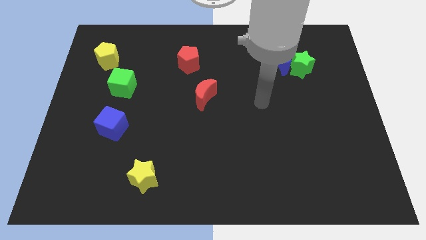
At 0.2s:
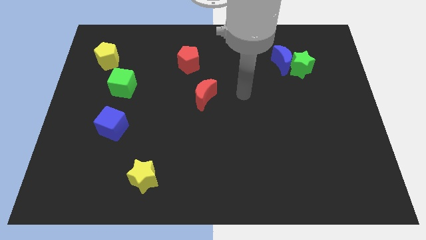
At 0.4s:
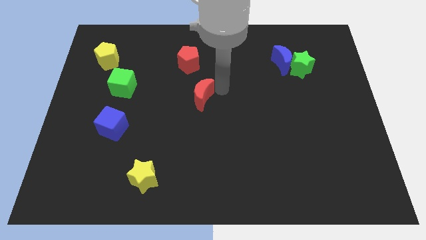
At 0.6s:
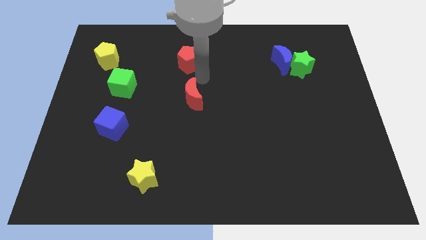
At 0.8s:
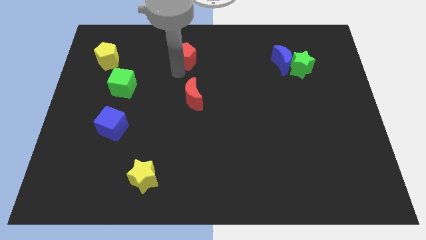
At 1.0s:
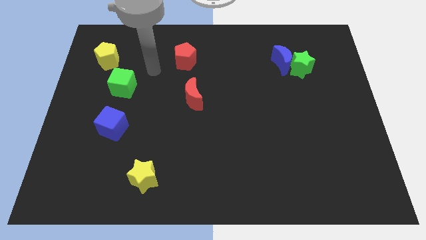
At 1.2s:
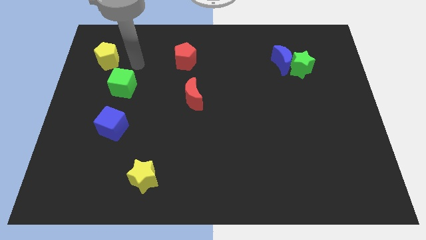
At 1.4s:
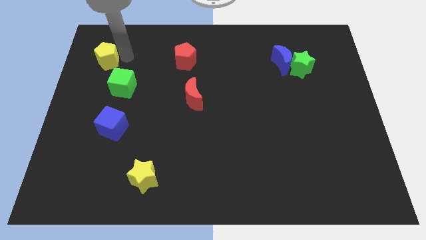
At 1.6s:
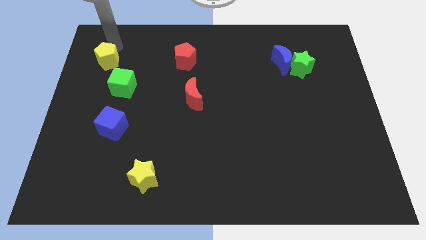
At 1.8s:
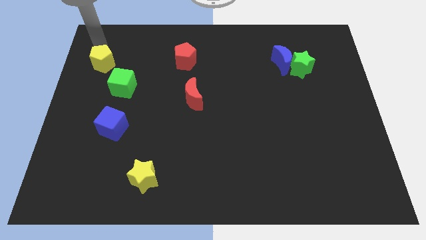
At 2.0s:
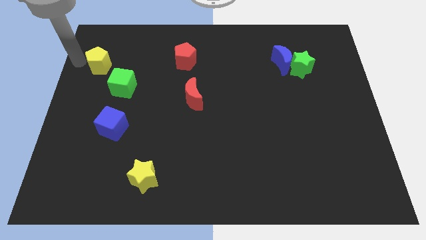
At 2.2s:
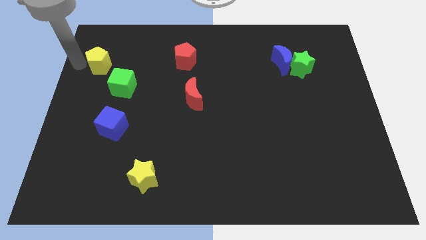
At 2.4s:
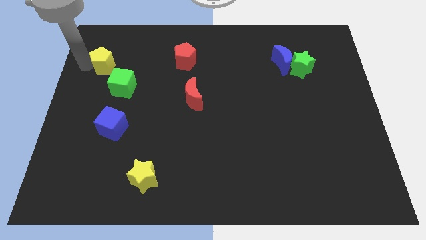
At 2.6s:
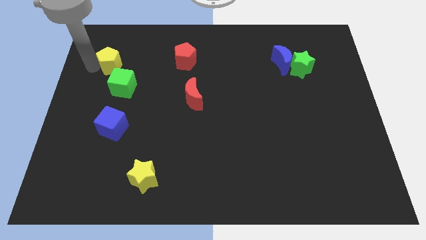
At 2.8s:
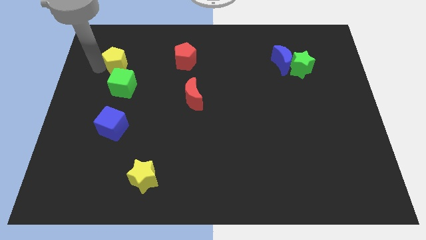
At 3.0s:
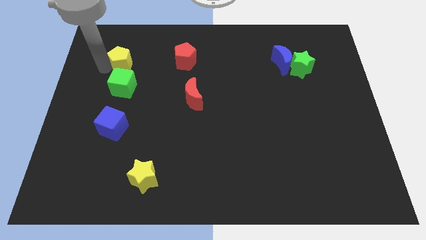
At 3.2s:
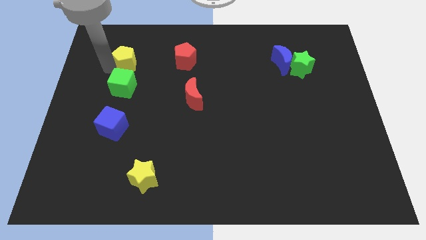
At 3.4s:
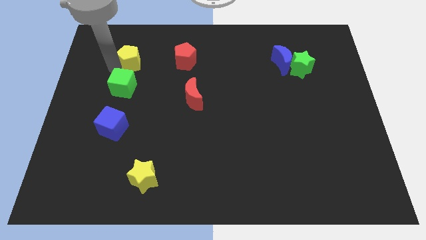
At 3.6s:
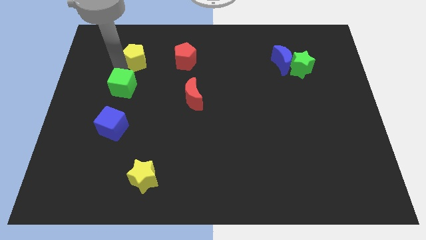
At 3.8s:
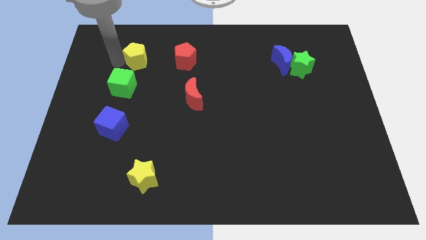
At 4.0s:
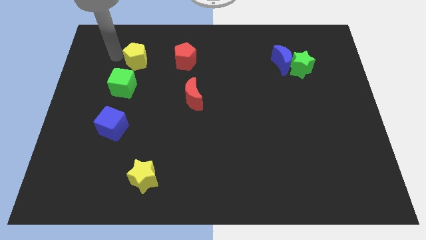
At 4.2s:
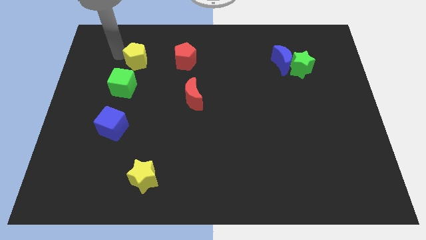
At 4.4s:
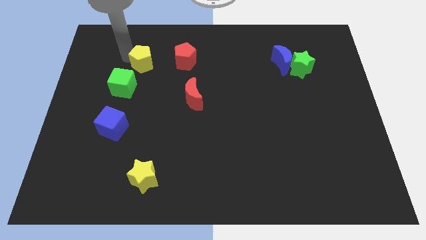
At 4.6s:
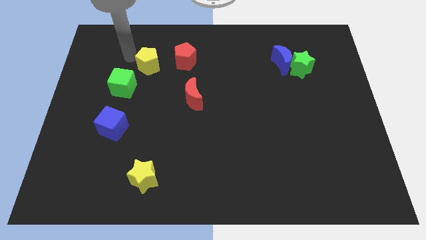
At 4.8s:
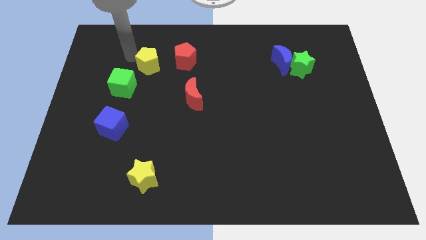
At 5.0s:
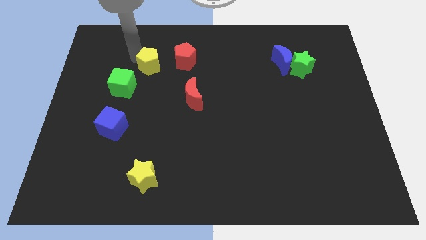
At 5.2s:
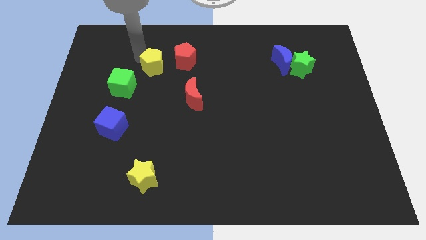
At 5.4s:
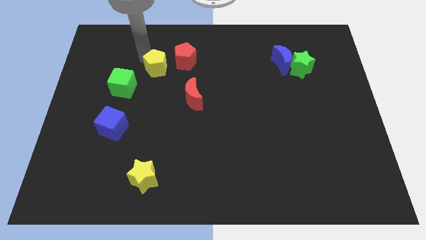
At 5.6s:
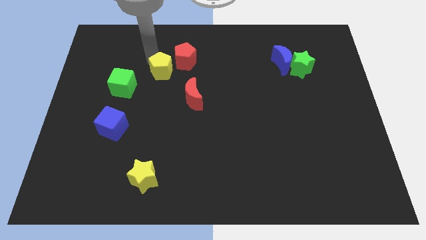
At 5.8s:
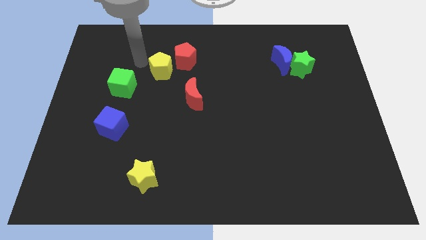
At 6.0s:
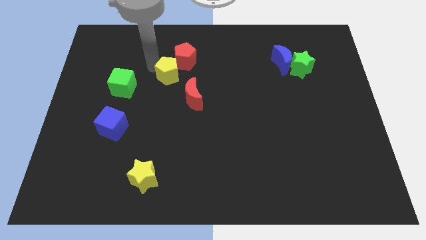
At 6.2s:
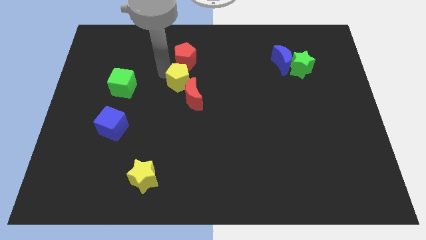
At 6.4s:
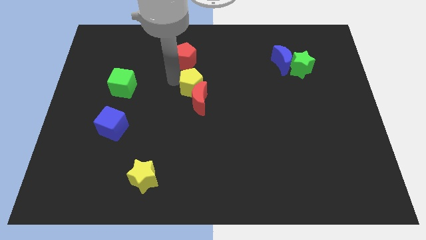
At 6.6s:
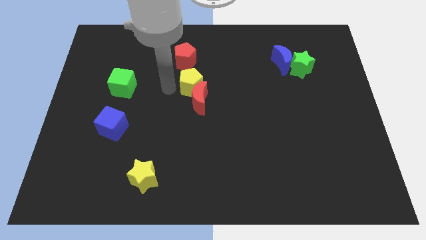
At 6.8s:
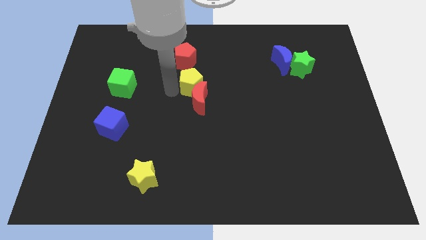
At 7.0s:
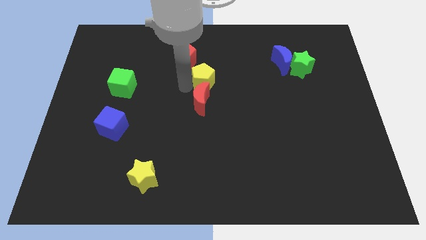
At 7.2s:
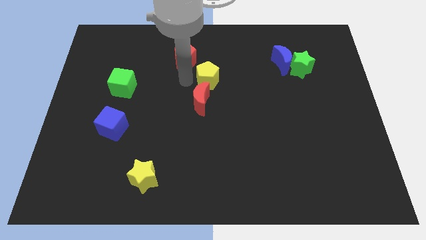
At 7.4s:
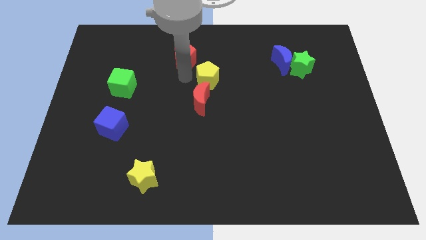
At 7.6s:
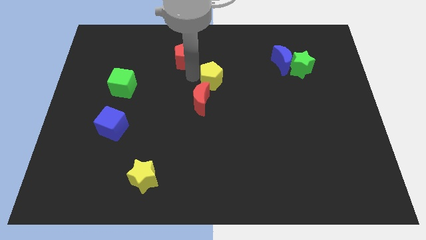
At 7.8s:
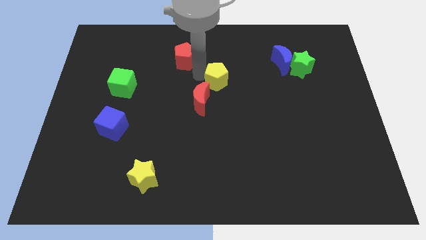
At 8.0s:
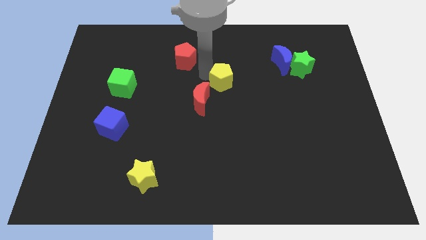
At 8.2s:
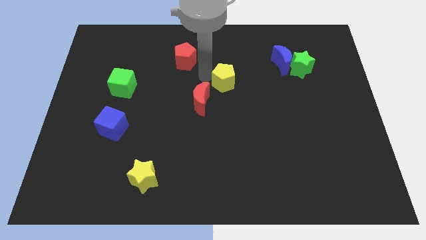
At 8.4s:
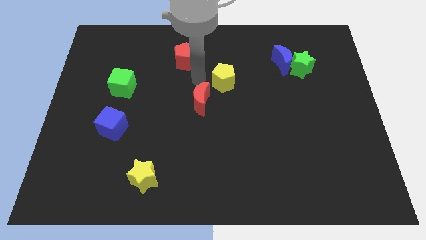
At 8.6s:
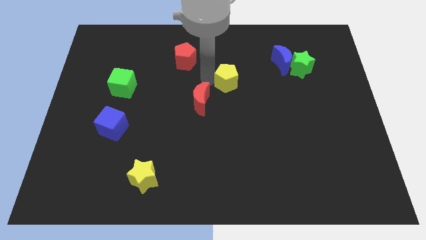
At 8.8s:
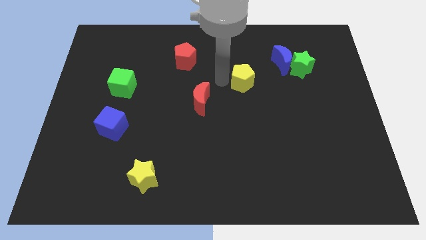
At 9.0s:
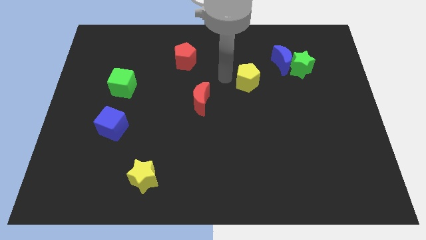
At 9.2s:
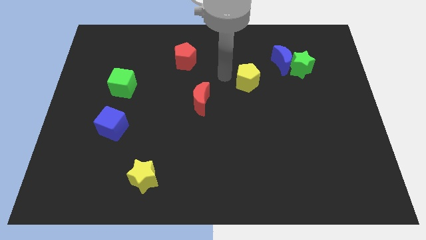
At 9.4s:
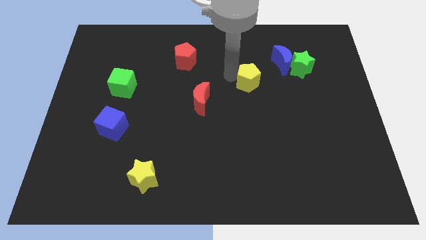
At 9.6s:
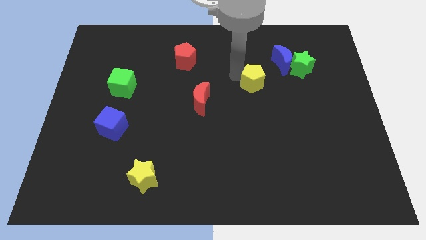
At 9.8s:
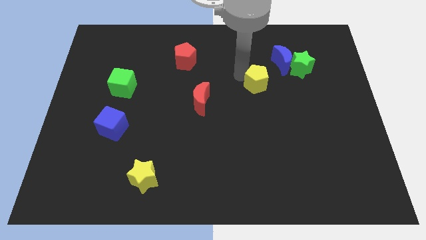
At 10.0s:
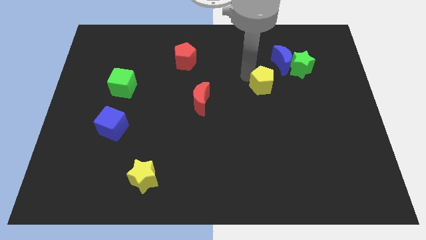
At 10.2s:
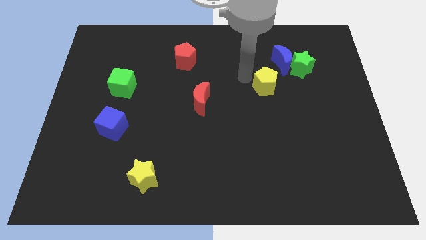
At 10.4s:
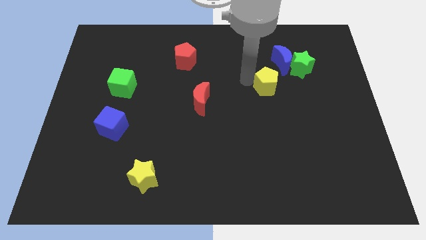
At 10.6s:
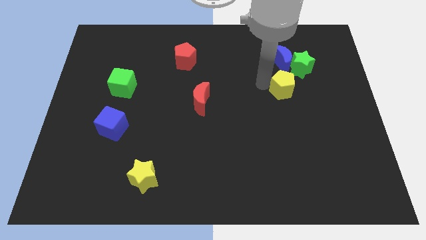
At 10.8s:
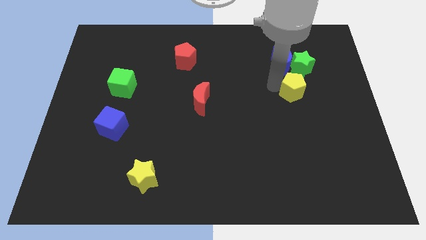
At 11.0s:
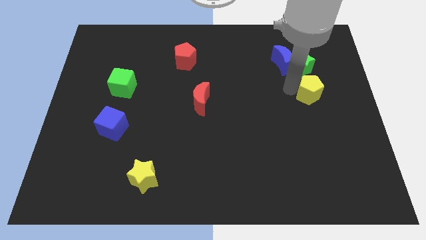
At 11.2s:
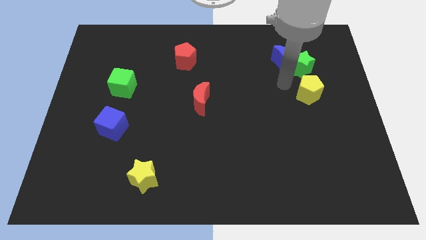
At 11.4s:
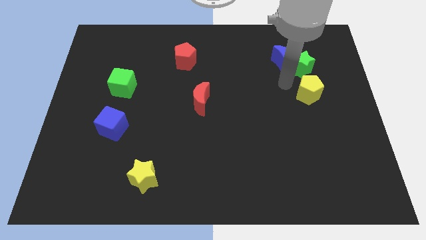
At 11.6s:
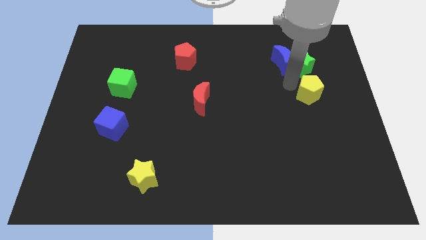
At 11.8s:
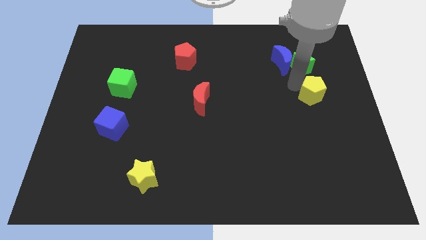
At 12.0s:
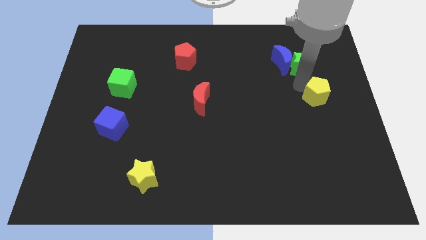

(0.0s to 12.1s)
push the yellow pentagon to the right side of the board

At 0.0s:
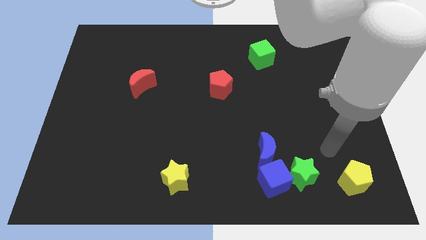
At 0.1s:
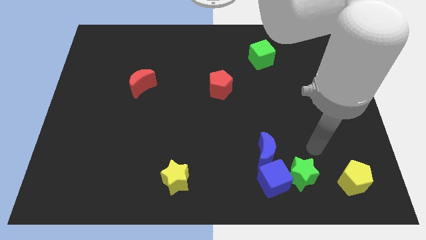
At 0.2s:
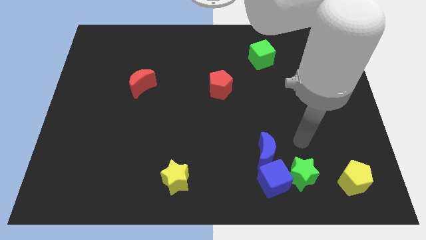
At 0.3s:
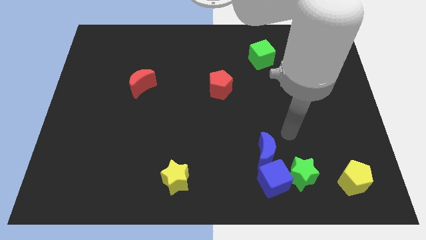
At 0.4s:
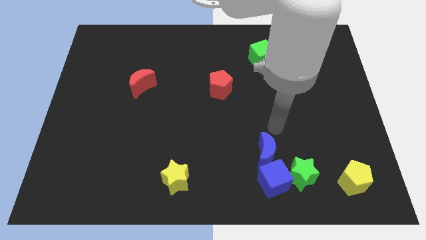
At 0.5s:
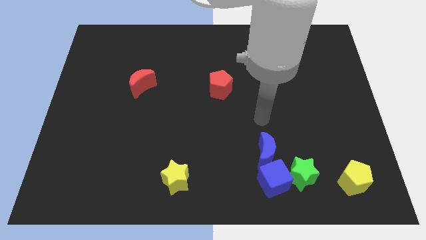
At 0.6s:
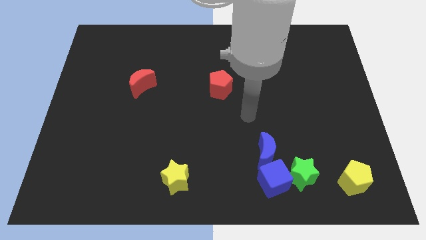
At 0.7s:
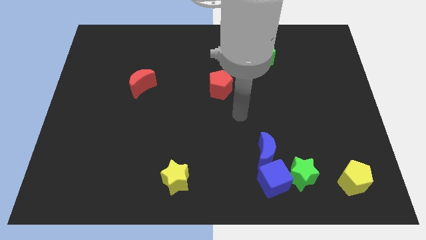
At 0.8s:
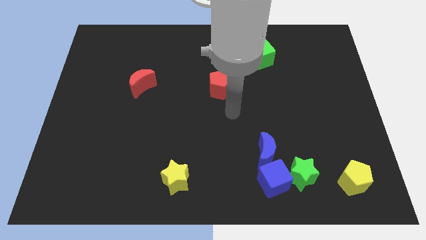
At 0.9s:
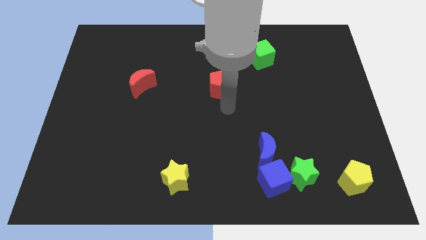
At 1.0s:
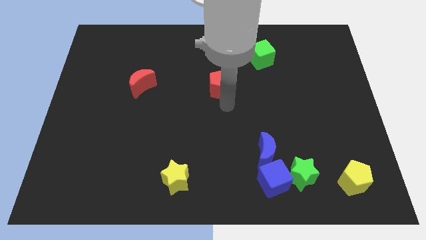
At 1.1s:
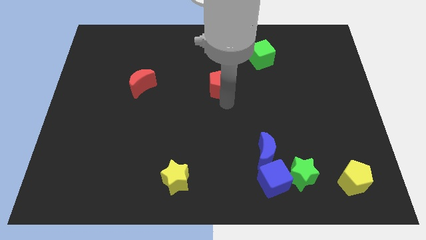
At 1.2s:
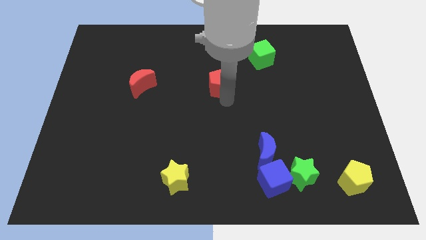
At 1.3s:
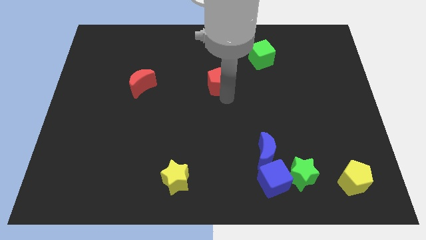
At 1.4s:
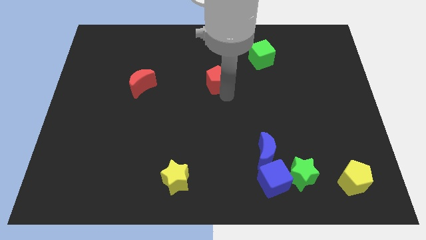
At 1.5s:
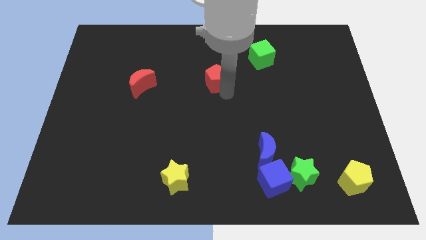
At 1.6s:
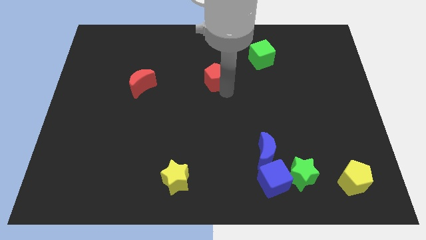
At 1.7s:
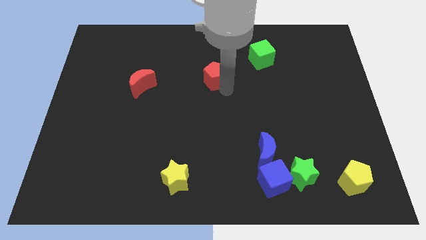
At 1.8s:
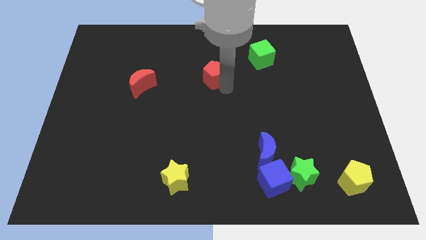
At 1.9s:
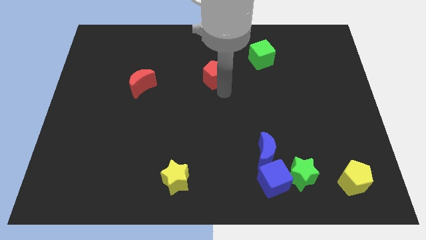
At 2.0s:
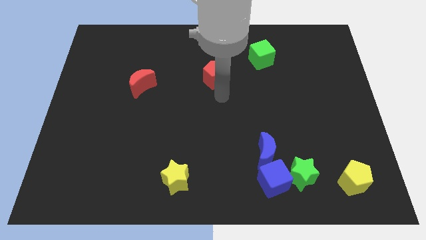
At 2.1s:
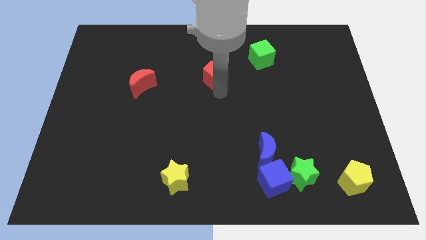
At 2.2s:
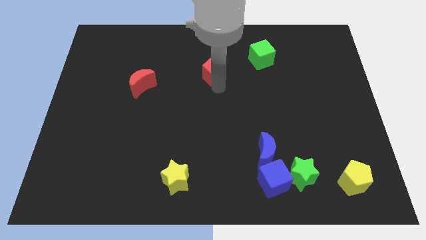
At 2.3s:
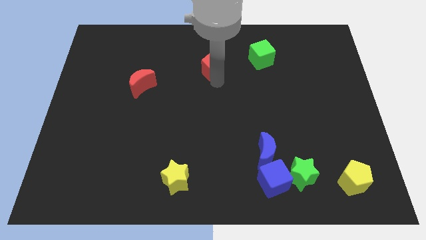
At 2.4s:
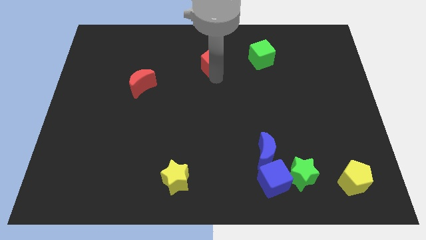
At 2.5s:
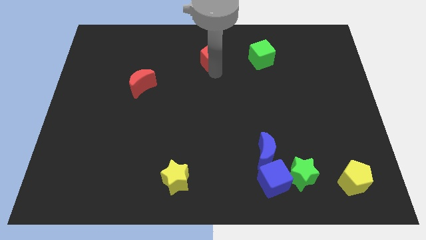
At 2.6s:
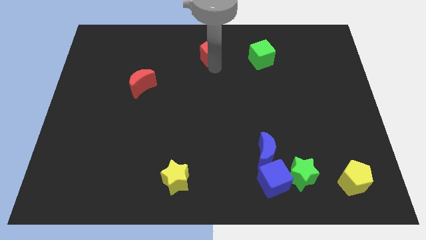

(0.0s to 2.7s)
move the red pentagon to the top side
